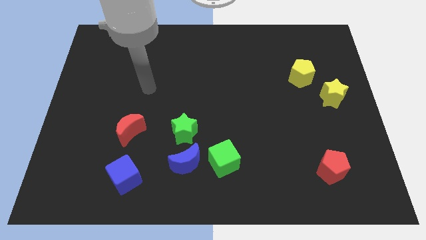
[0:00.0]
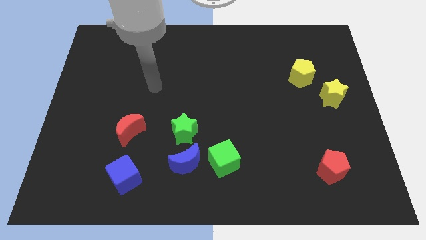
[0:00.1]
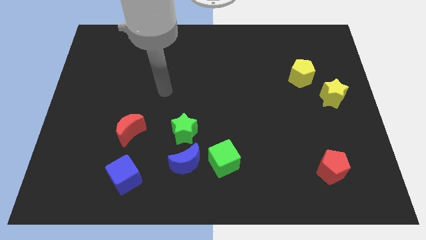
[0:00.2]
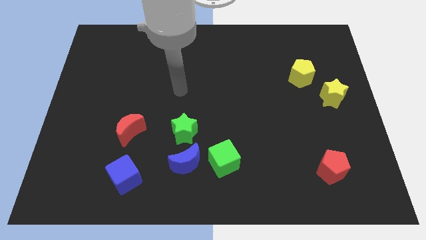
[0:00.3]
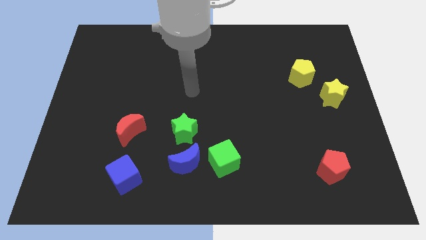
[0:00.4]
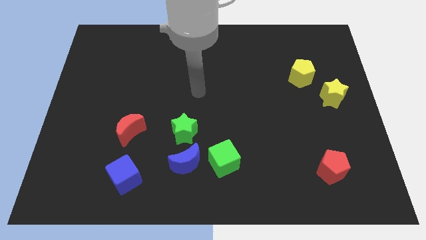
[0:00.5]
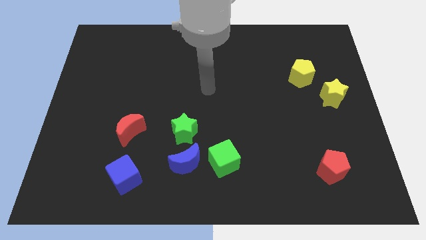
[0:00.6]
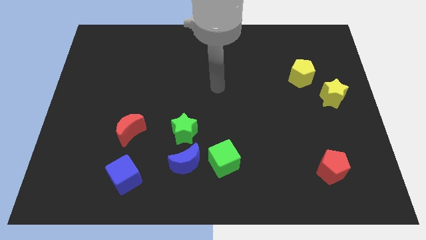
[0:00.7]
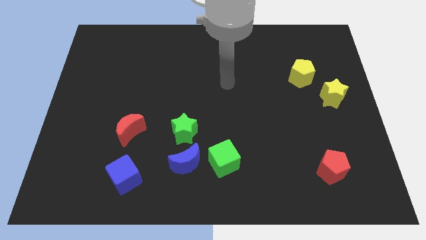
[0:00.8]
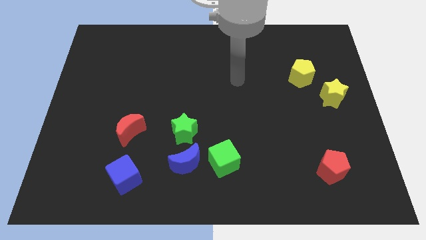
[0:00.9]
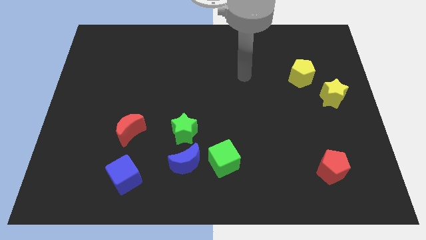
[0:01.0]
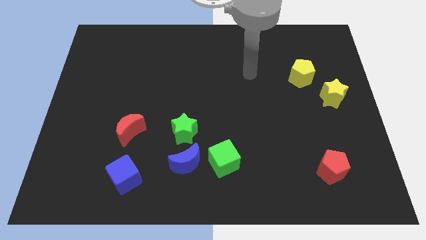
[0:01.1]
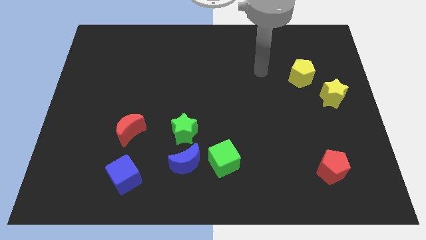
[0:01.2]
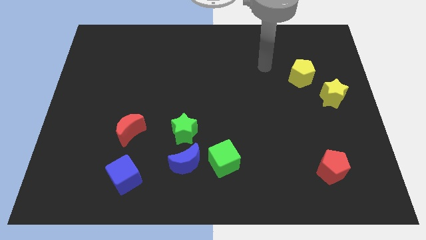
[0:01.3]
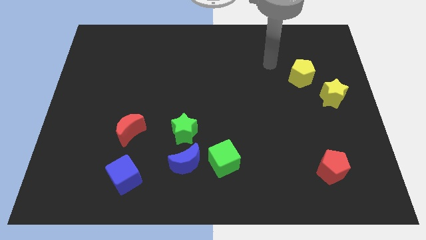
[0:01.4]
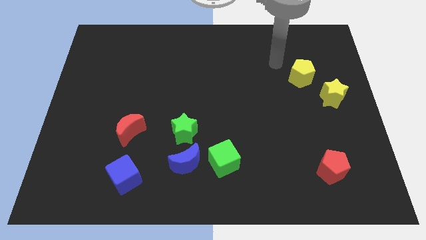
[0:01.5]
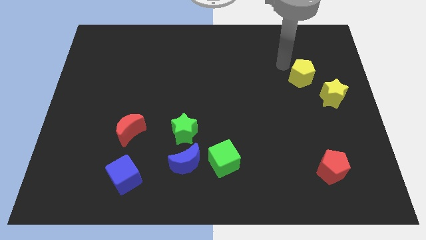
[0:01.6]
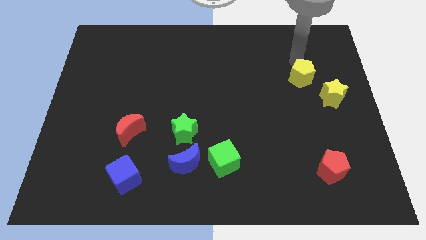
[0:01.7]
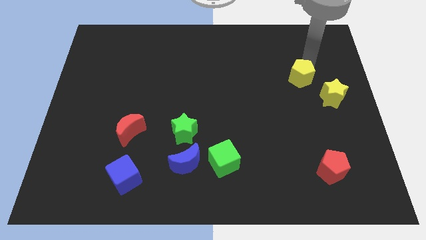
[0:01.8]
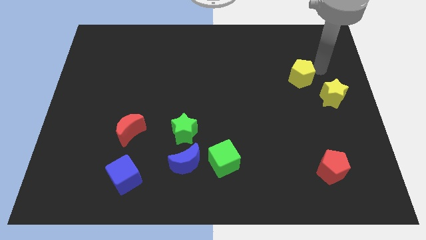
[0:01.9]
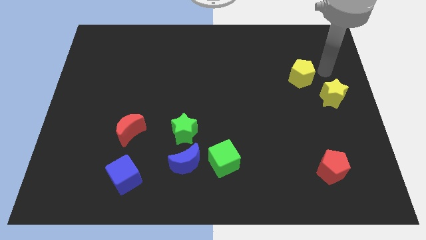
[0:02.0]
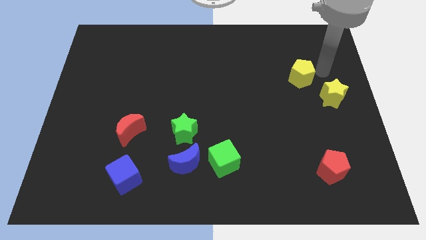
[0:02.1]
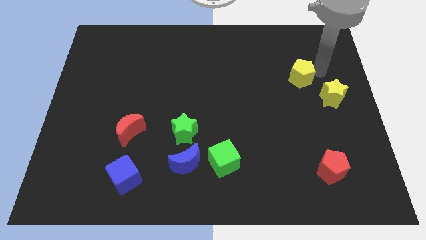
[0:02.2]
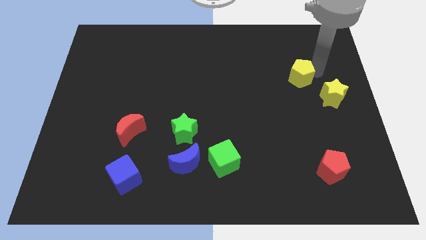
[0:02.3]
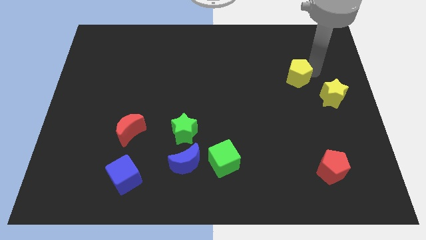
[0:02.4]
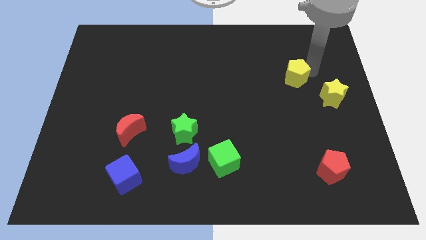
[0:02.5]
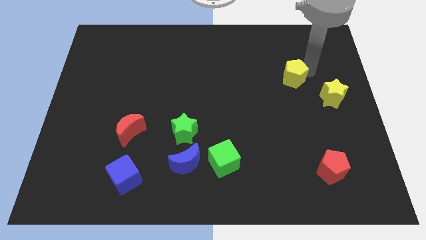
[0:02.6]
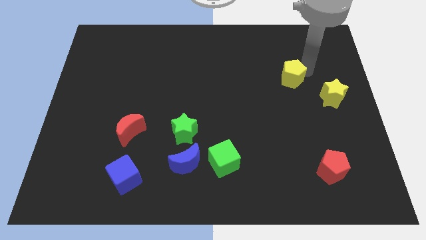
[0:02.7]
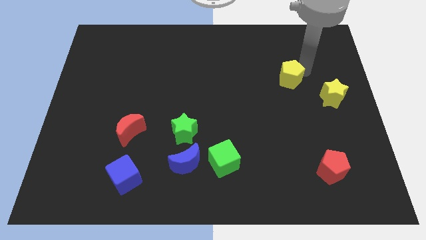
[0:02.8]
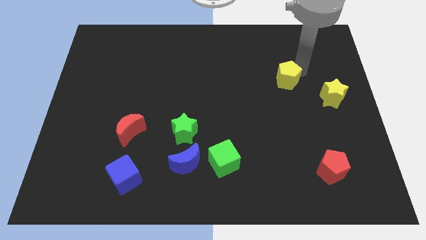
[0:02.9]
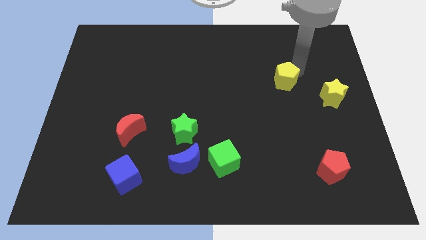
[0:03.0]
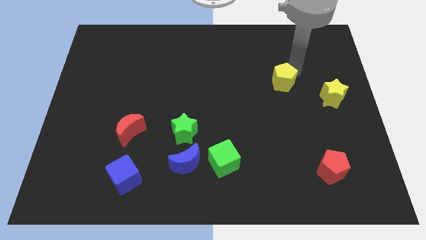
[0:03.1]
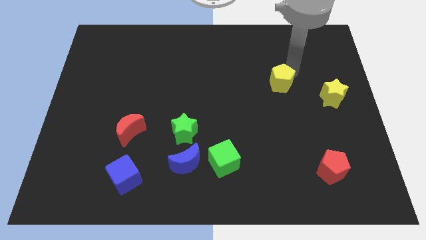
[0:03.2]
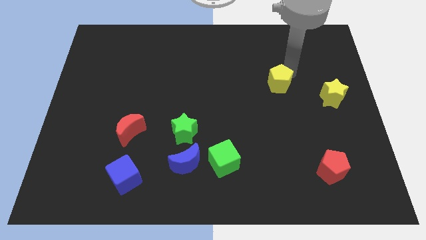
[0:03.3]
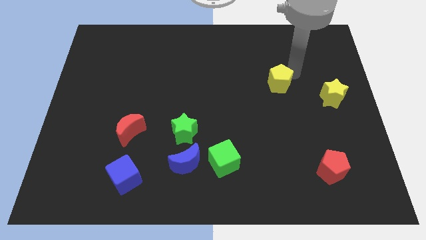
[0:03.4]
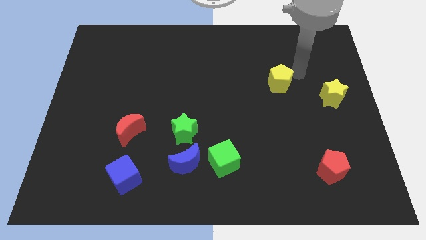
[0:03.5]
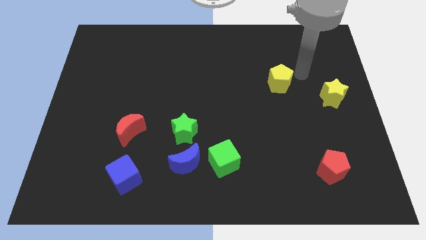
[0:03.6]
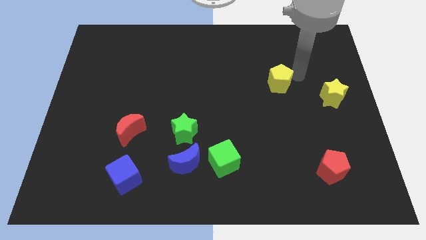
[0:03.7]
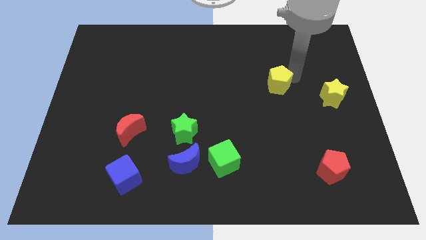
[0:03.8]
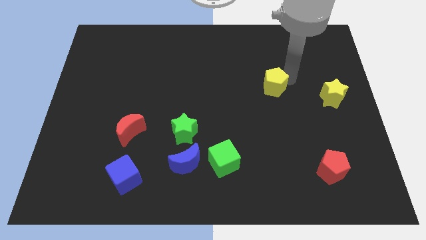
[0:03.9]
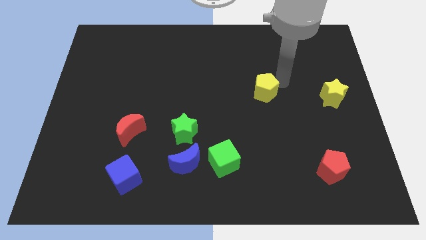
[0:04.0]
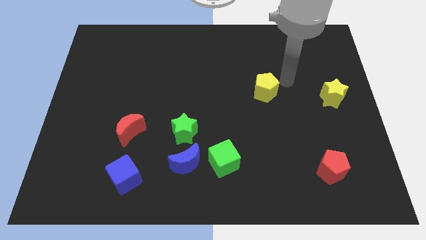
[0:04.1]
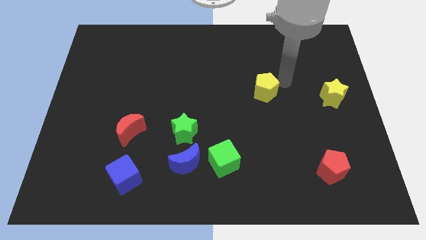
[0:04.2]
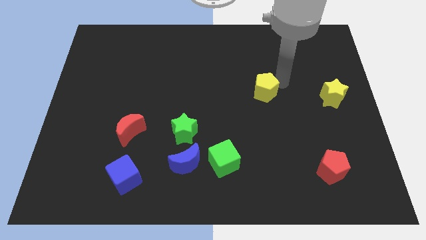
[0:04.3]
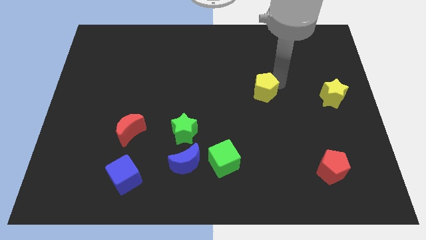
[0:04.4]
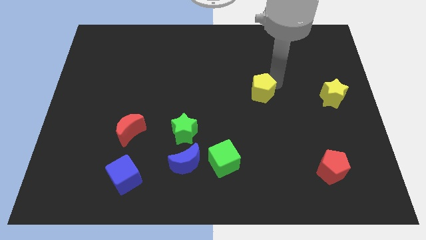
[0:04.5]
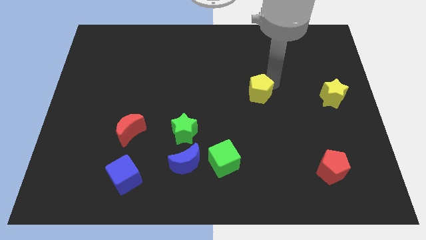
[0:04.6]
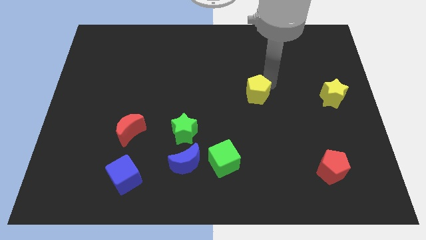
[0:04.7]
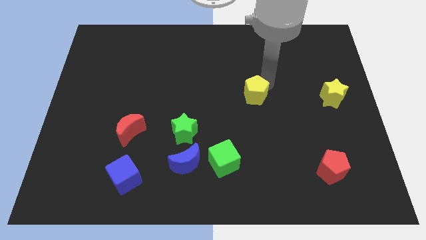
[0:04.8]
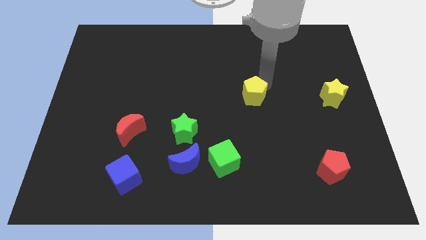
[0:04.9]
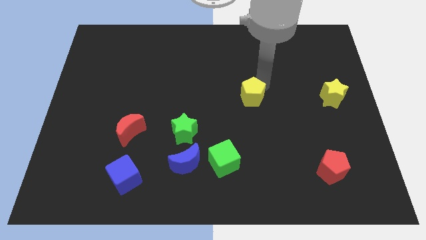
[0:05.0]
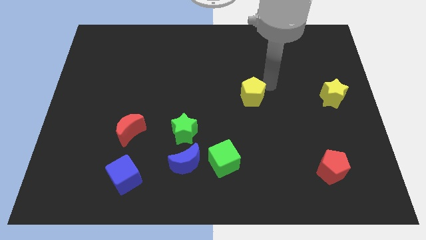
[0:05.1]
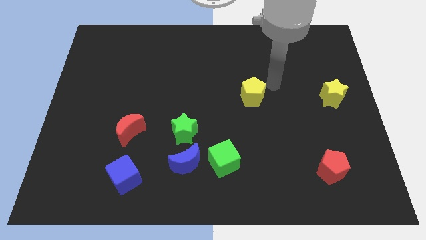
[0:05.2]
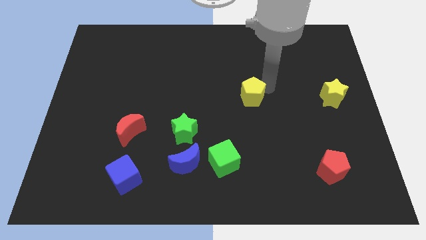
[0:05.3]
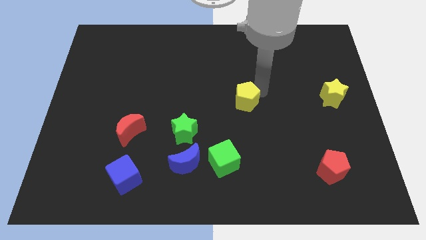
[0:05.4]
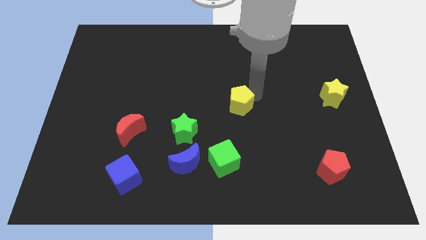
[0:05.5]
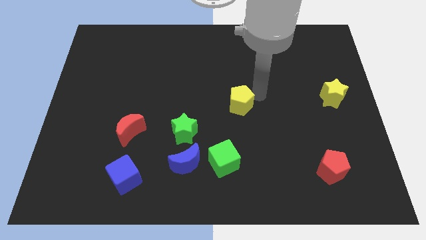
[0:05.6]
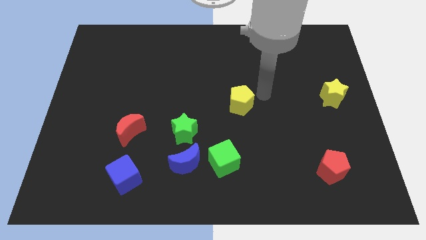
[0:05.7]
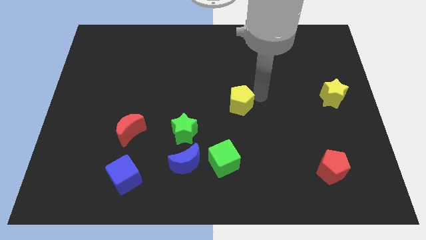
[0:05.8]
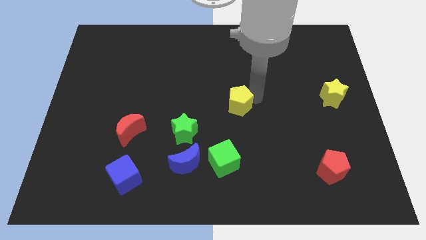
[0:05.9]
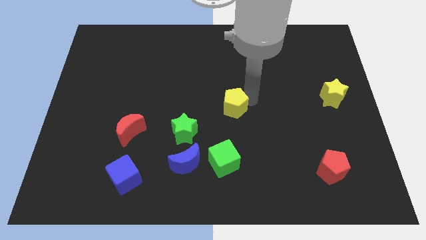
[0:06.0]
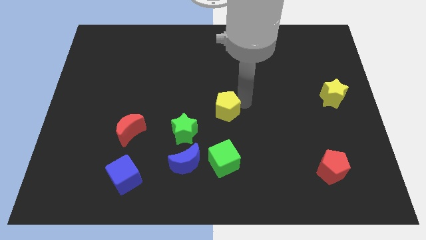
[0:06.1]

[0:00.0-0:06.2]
push the yellow pentagon to the top right of the green star
